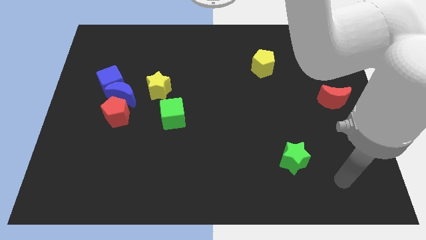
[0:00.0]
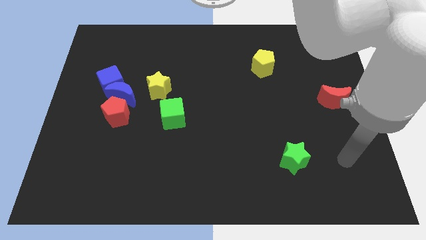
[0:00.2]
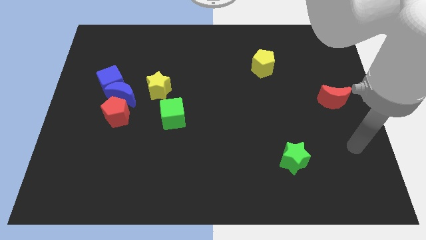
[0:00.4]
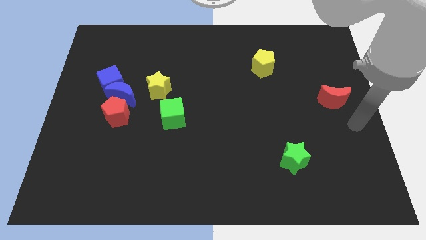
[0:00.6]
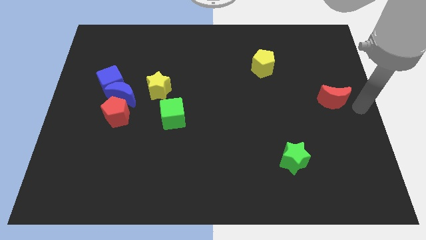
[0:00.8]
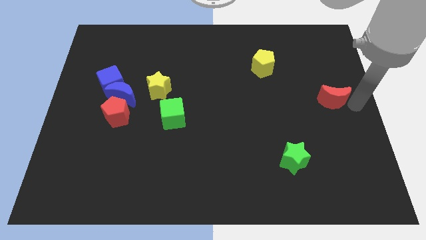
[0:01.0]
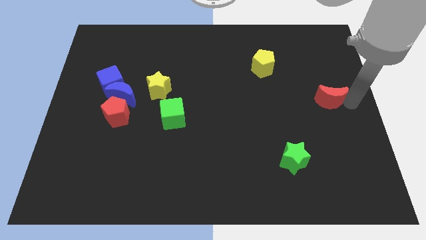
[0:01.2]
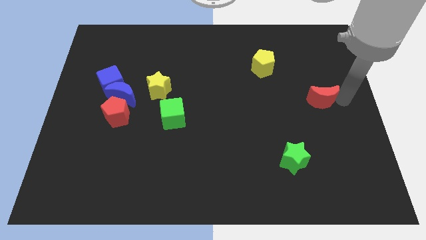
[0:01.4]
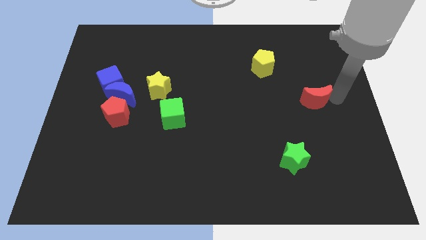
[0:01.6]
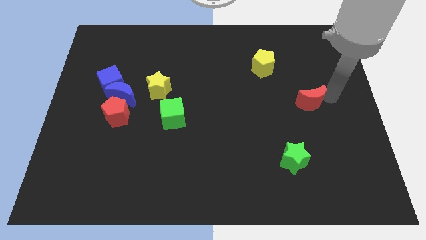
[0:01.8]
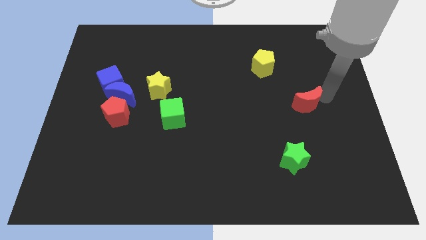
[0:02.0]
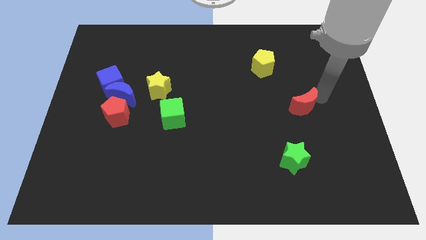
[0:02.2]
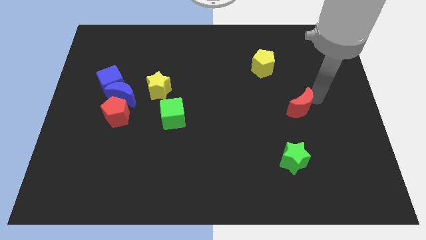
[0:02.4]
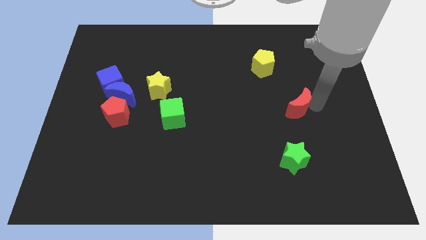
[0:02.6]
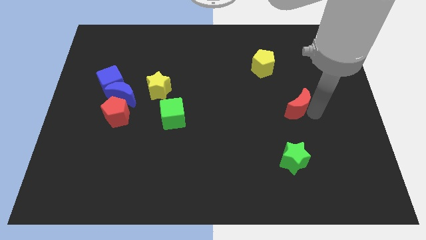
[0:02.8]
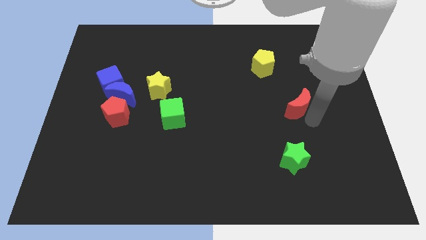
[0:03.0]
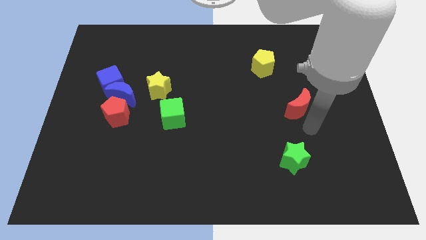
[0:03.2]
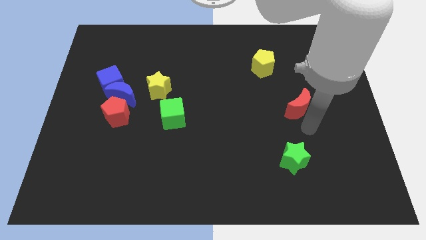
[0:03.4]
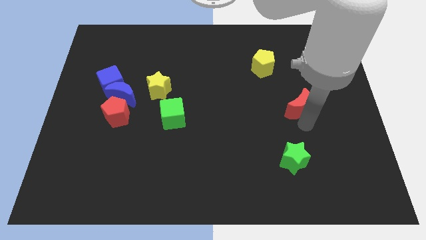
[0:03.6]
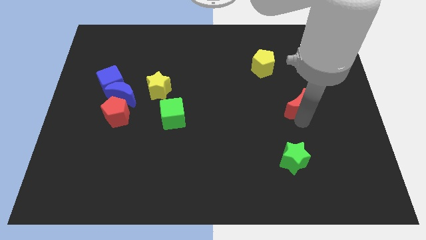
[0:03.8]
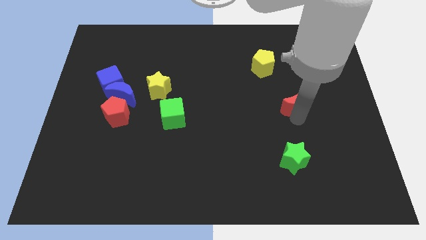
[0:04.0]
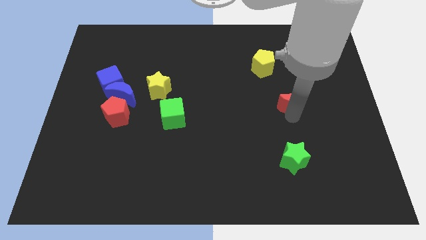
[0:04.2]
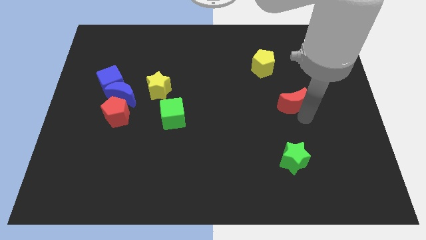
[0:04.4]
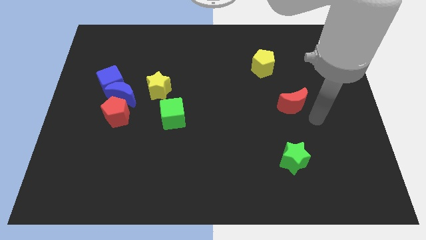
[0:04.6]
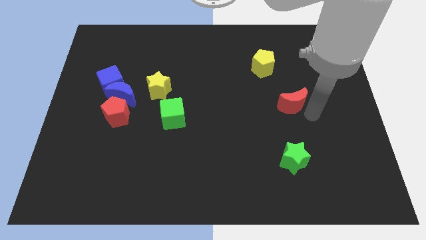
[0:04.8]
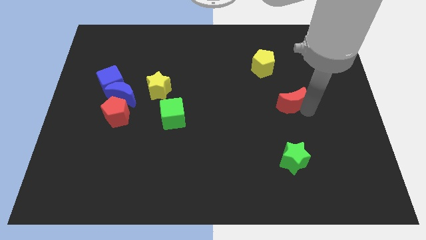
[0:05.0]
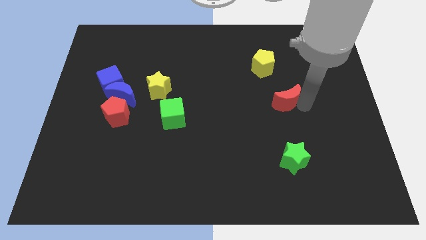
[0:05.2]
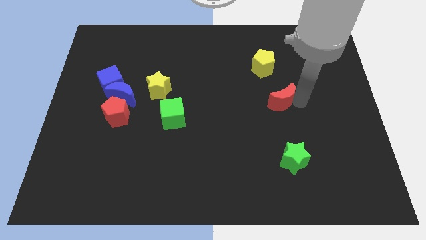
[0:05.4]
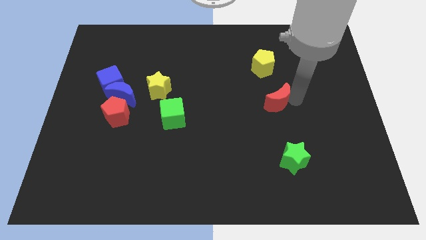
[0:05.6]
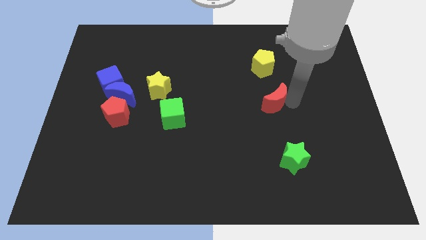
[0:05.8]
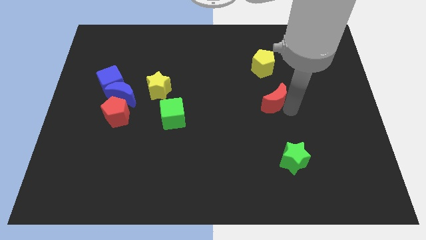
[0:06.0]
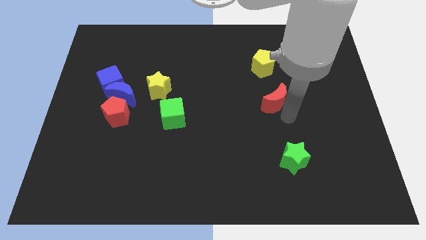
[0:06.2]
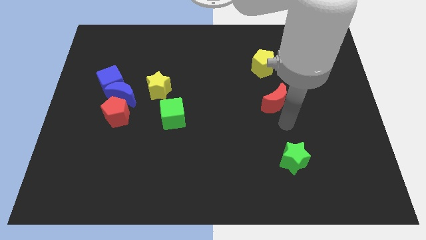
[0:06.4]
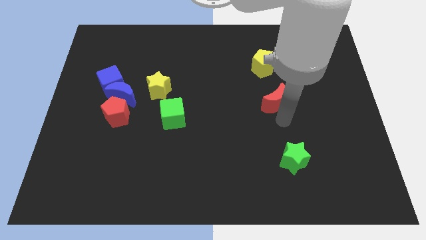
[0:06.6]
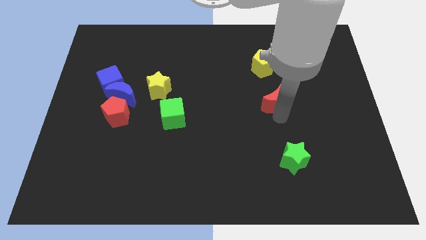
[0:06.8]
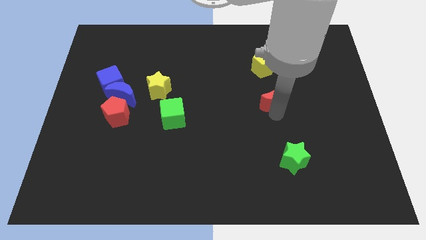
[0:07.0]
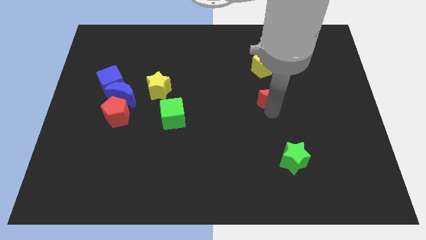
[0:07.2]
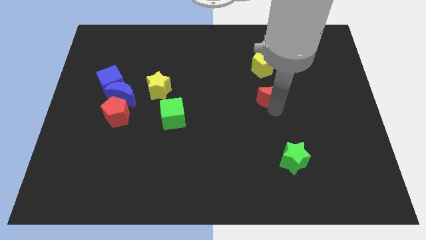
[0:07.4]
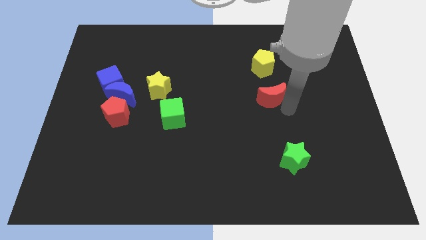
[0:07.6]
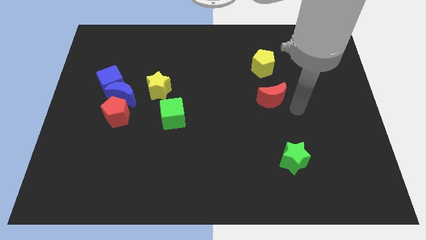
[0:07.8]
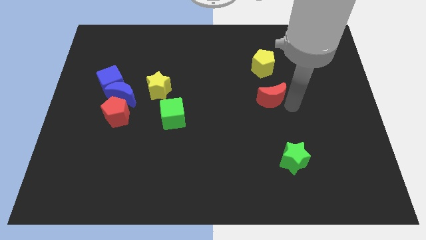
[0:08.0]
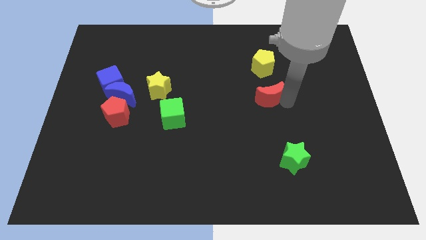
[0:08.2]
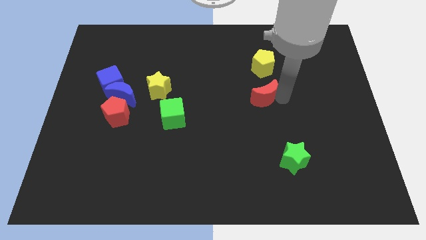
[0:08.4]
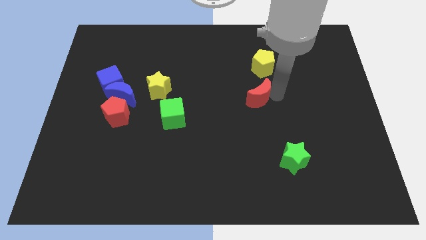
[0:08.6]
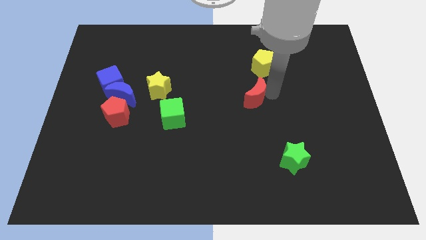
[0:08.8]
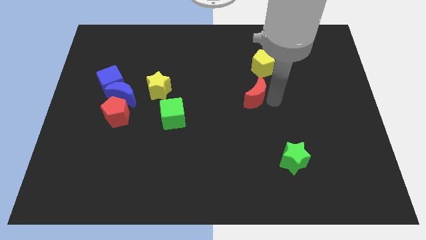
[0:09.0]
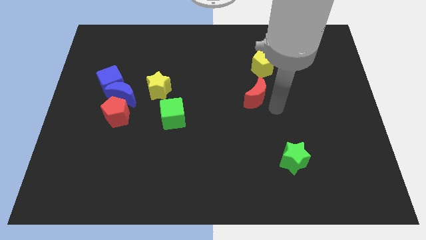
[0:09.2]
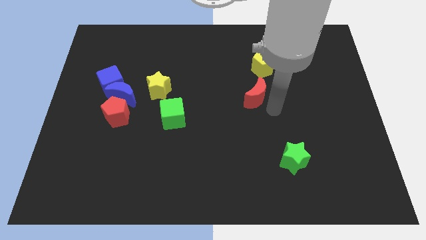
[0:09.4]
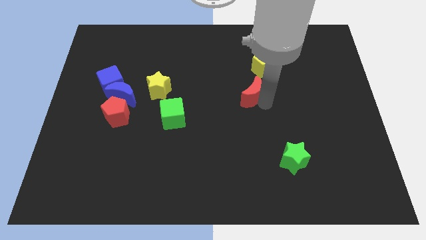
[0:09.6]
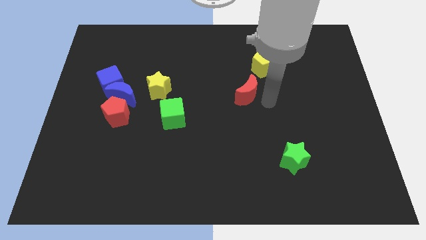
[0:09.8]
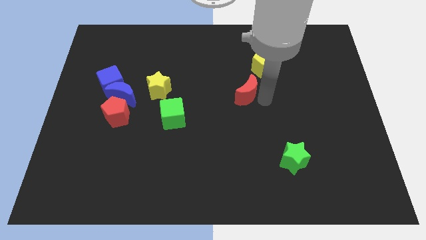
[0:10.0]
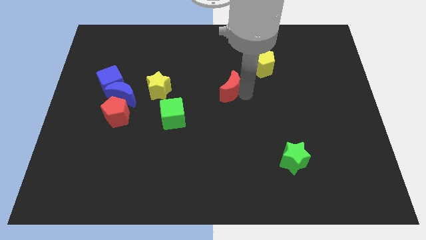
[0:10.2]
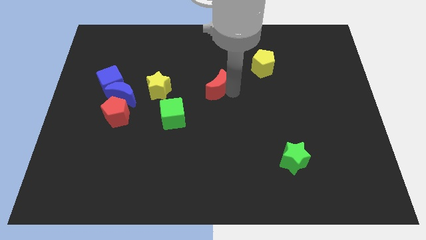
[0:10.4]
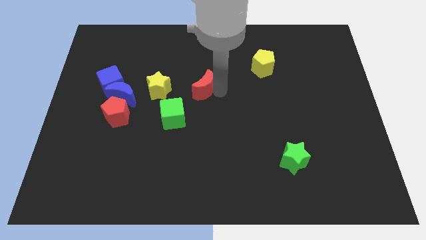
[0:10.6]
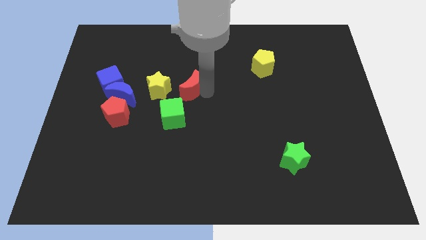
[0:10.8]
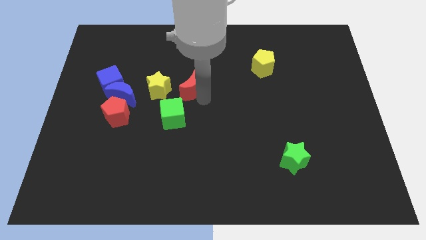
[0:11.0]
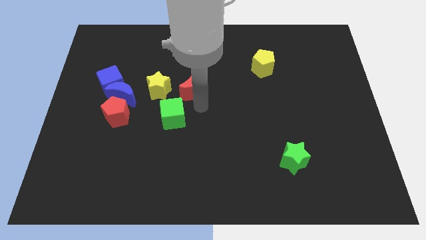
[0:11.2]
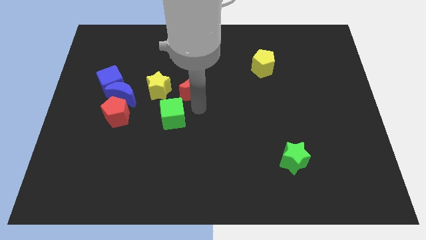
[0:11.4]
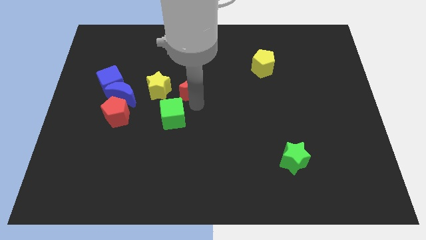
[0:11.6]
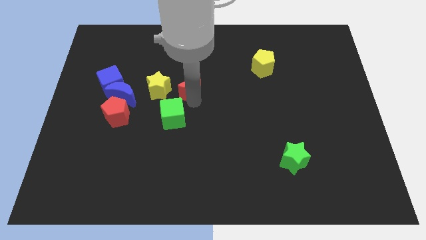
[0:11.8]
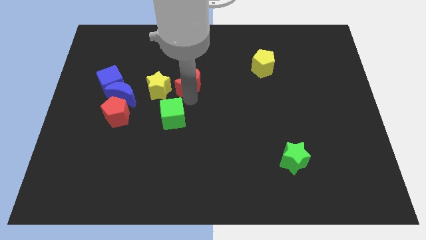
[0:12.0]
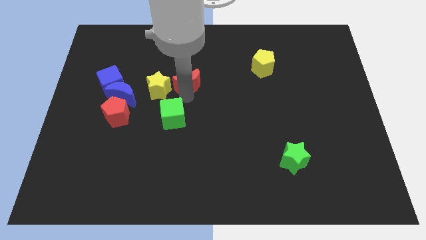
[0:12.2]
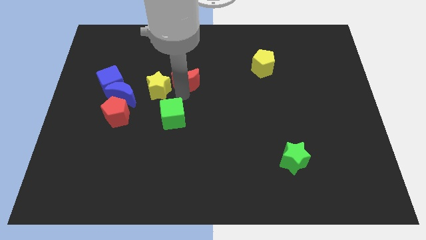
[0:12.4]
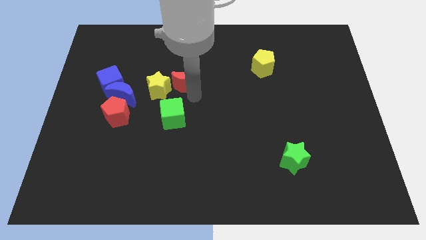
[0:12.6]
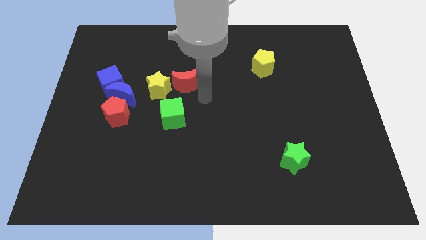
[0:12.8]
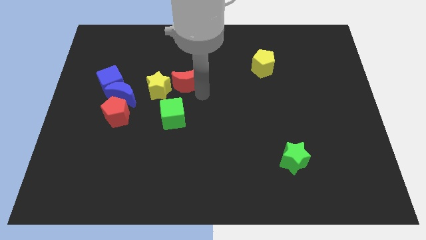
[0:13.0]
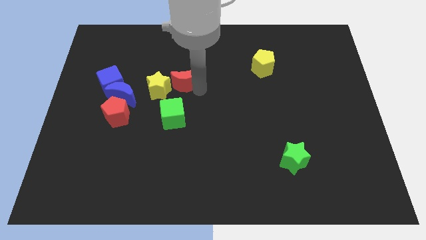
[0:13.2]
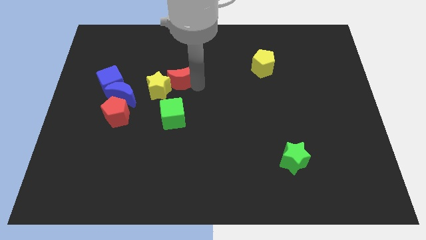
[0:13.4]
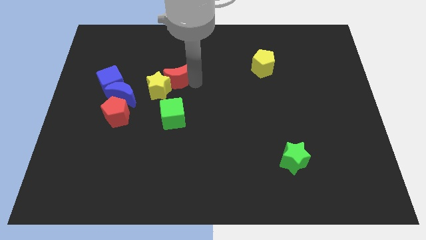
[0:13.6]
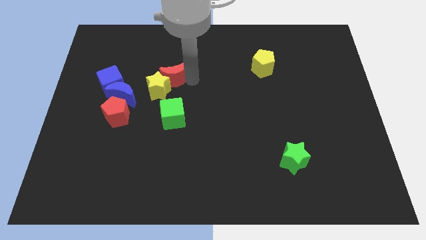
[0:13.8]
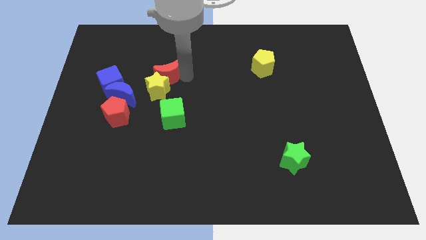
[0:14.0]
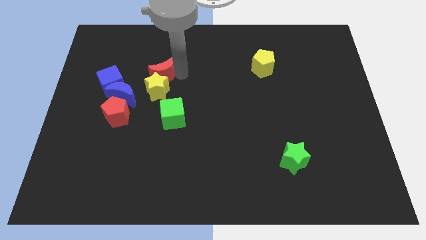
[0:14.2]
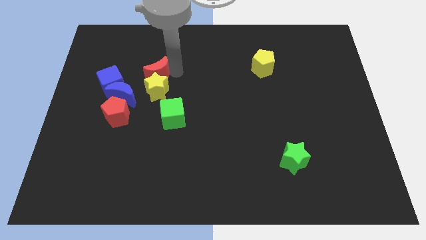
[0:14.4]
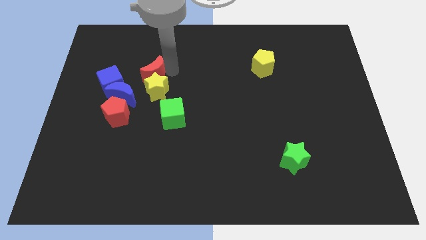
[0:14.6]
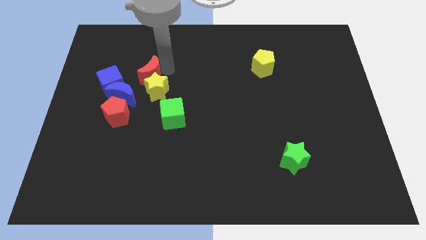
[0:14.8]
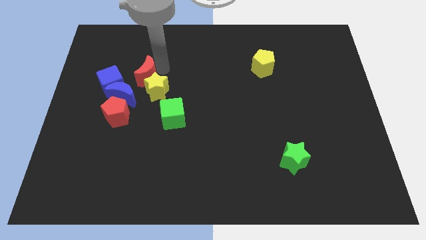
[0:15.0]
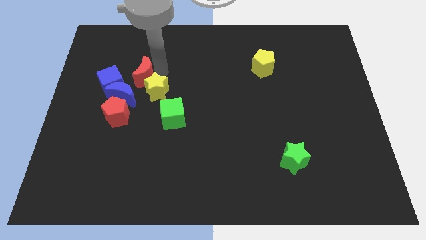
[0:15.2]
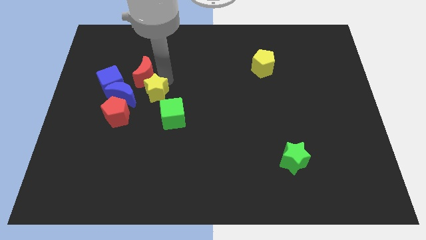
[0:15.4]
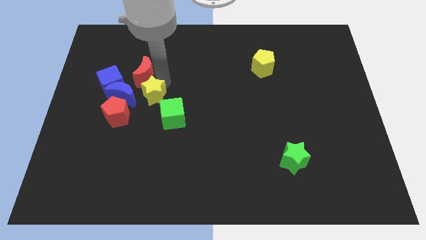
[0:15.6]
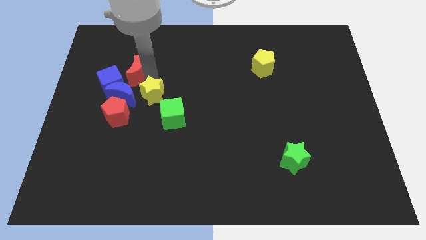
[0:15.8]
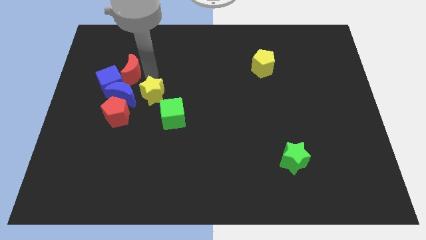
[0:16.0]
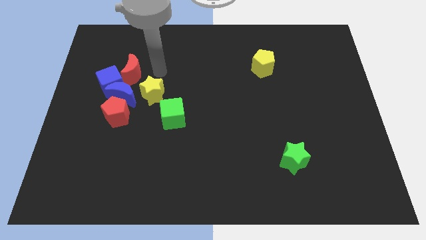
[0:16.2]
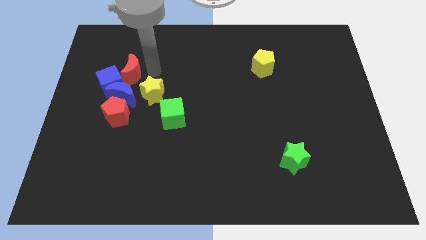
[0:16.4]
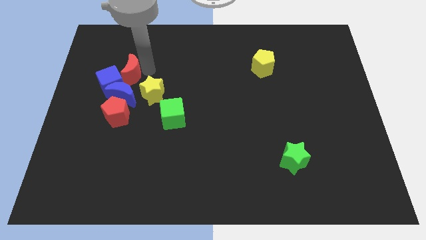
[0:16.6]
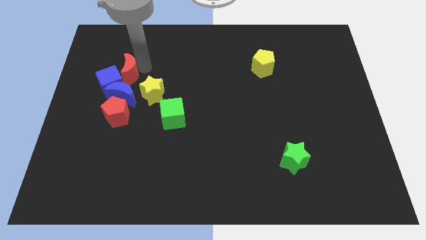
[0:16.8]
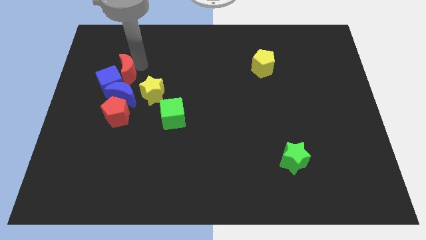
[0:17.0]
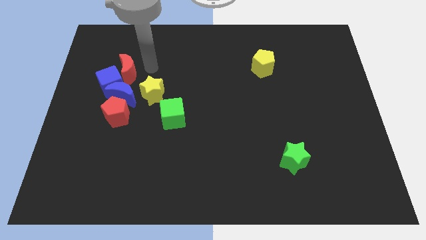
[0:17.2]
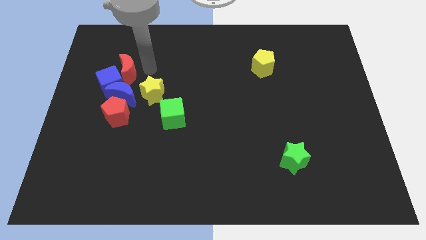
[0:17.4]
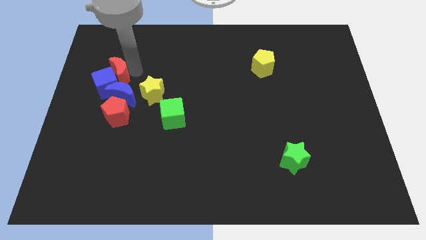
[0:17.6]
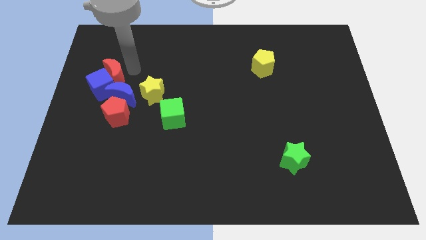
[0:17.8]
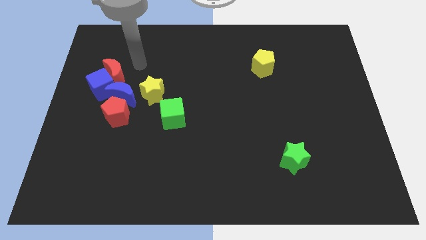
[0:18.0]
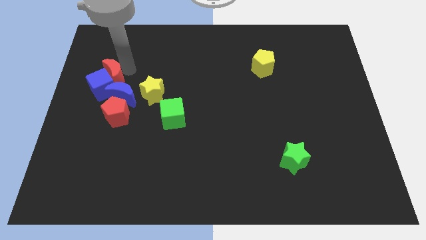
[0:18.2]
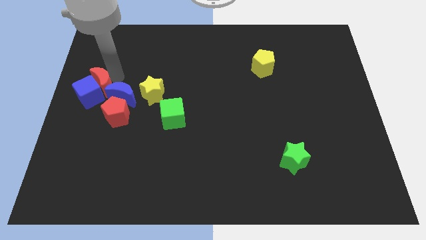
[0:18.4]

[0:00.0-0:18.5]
put the red moon diagonally up and to the left of the red pentagon
